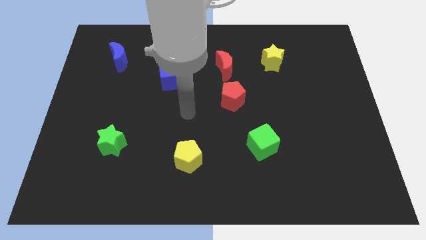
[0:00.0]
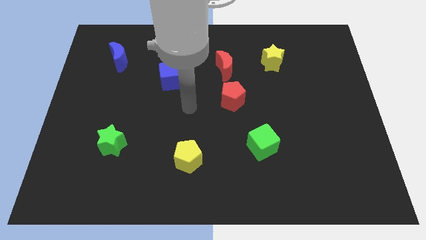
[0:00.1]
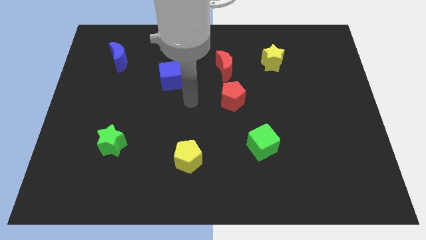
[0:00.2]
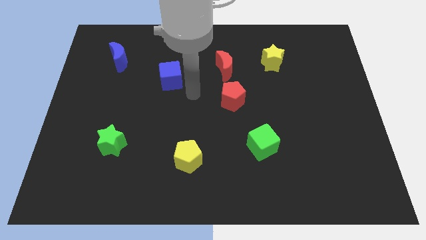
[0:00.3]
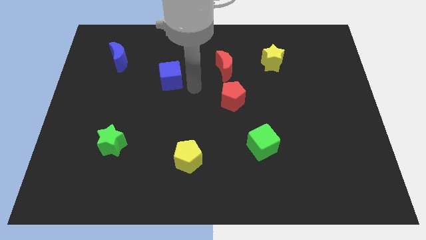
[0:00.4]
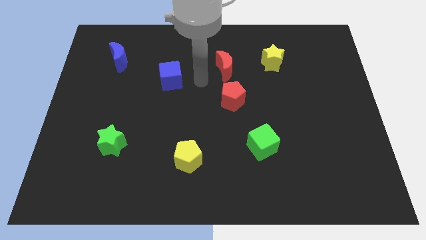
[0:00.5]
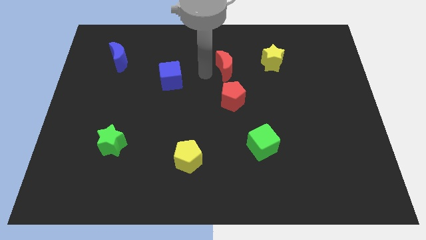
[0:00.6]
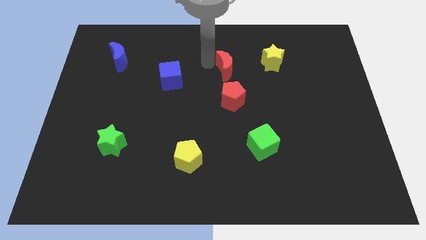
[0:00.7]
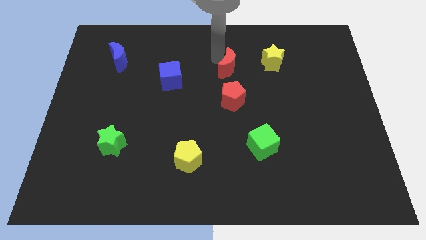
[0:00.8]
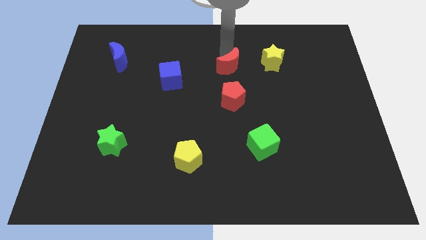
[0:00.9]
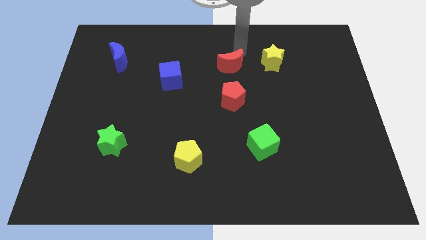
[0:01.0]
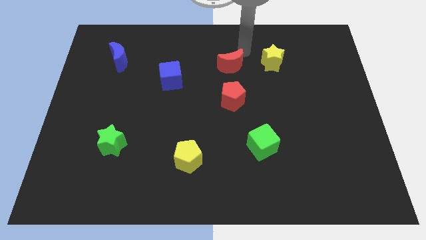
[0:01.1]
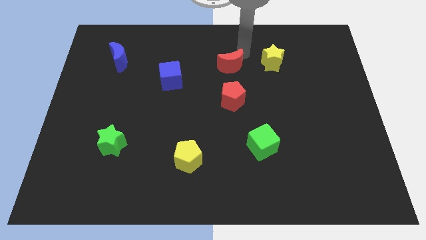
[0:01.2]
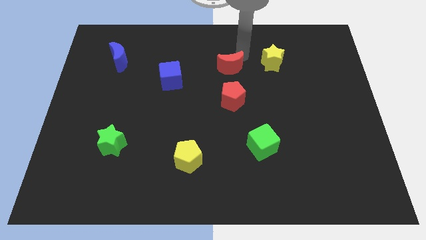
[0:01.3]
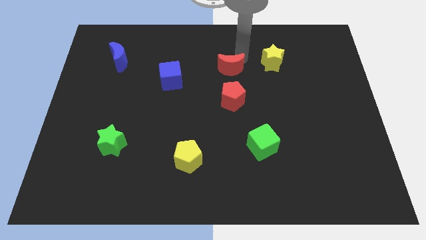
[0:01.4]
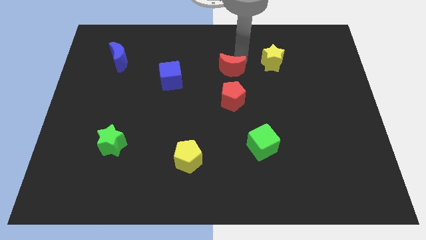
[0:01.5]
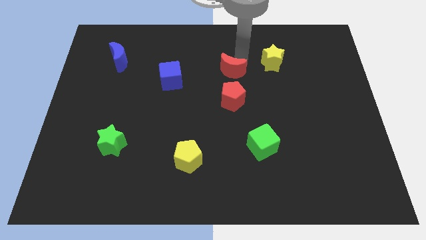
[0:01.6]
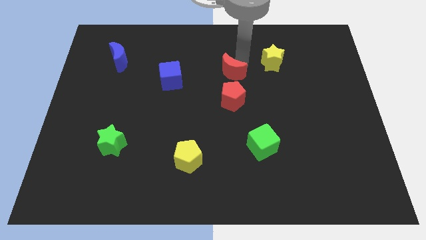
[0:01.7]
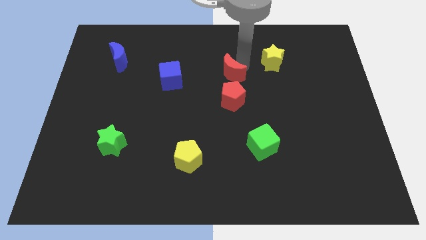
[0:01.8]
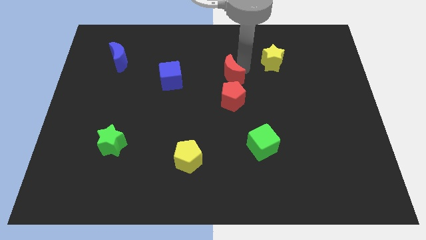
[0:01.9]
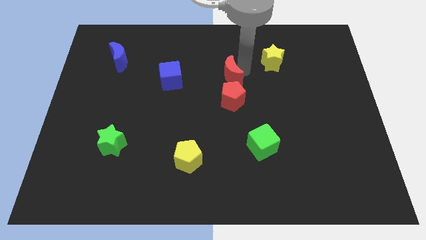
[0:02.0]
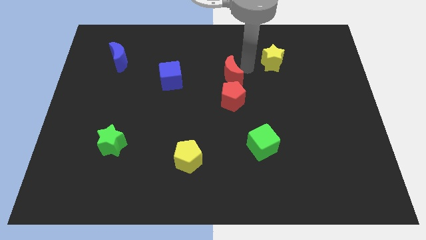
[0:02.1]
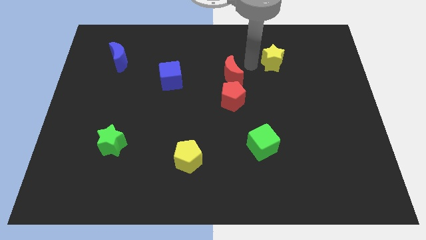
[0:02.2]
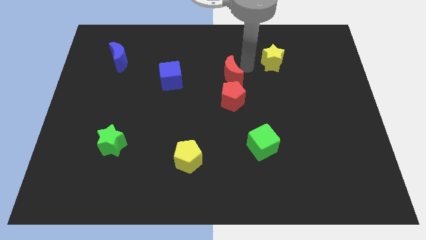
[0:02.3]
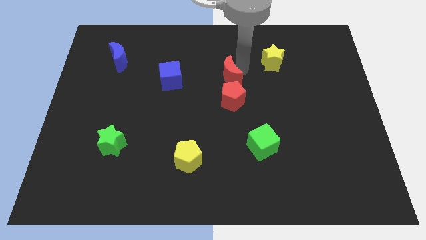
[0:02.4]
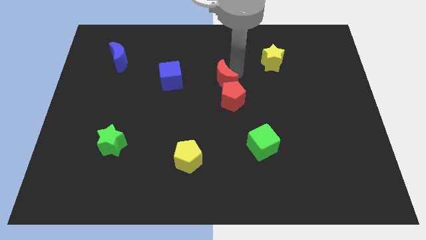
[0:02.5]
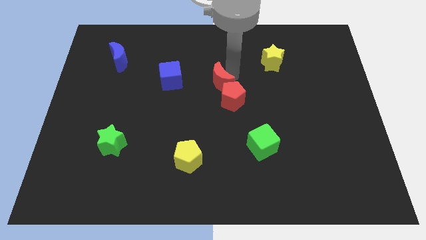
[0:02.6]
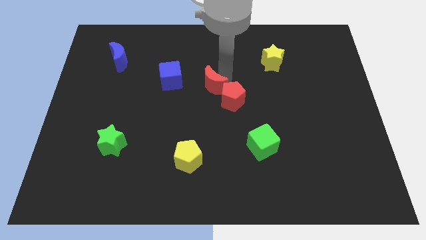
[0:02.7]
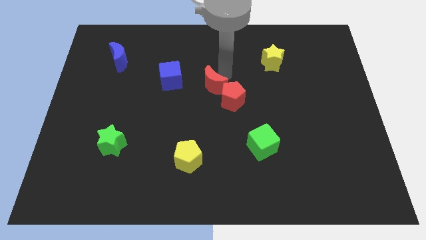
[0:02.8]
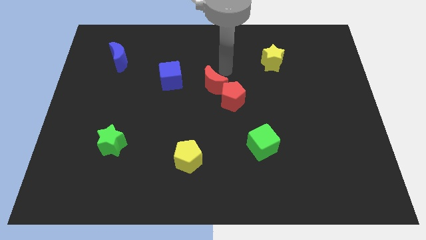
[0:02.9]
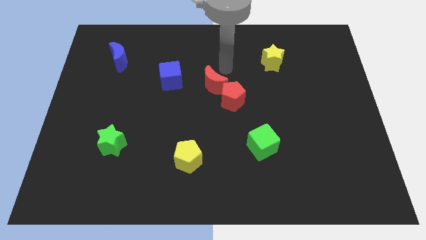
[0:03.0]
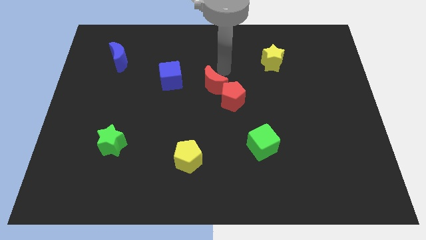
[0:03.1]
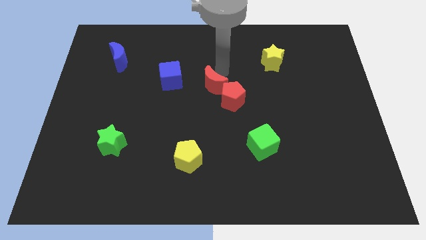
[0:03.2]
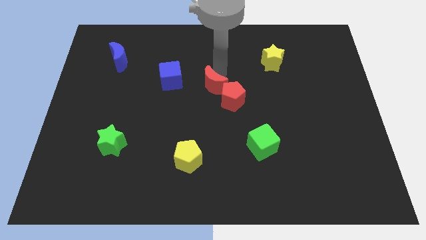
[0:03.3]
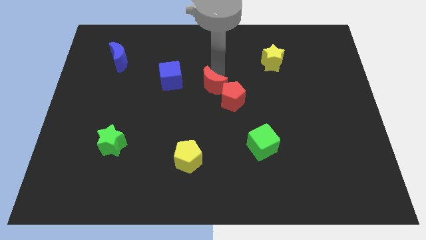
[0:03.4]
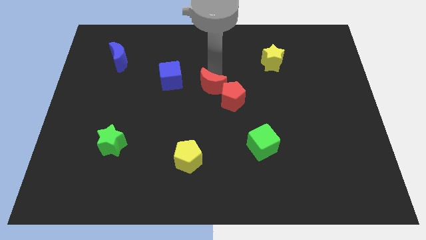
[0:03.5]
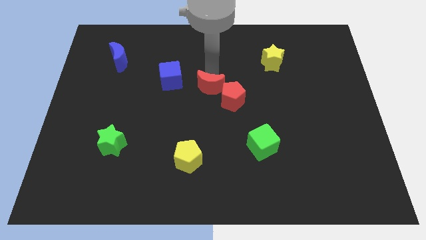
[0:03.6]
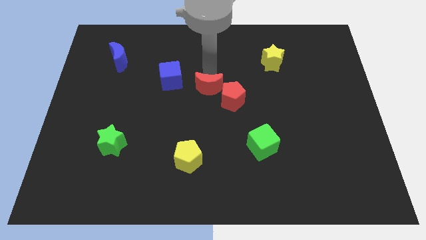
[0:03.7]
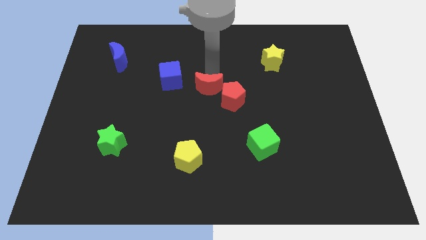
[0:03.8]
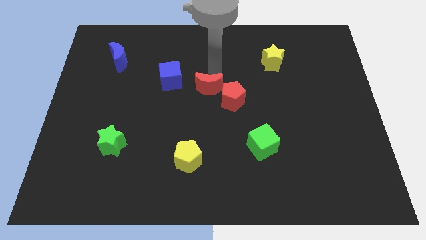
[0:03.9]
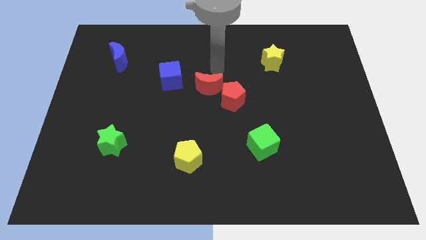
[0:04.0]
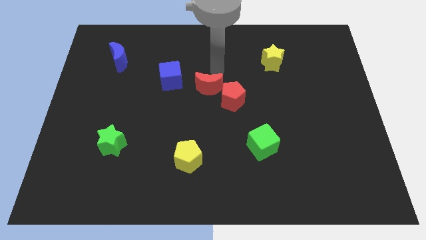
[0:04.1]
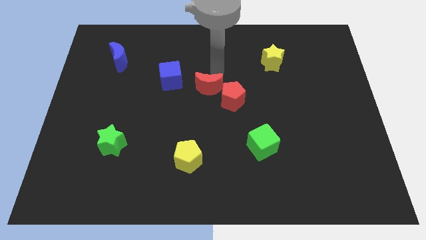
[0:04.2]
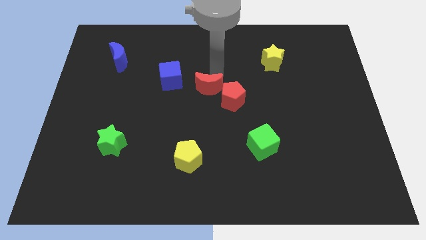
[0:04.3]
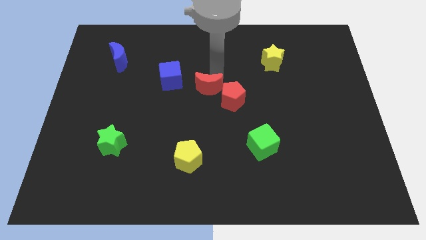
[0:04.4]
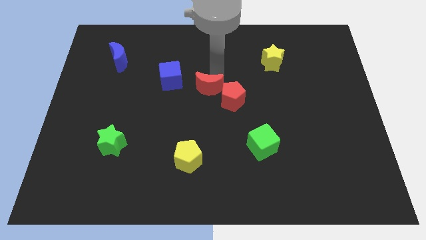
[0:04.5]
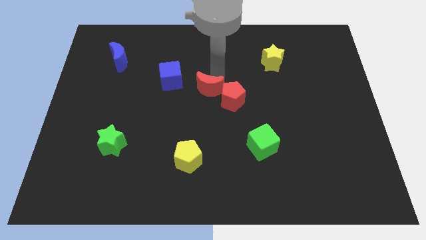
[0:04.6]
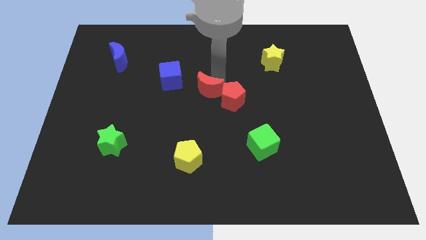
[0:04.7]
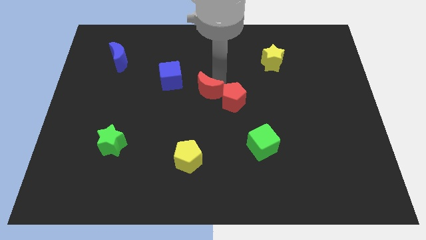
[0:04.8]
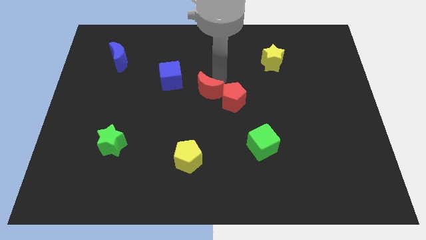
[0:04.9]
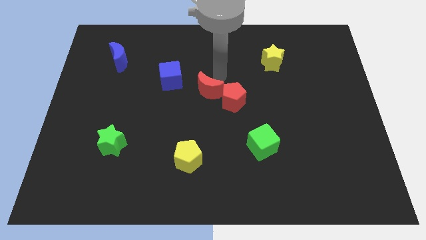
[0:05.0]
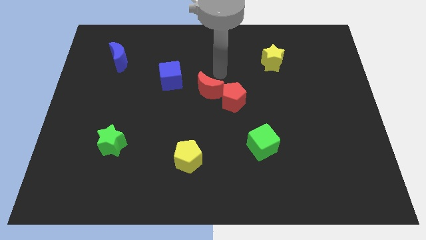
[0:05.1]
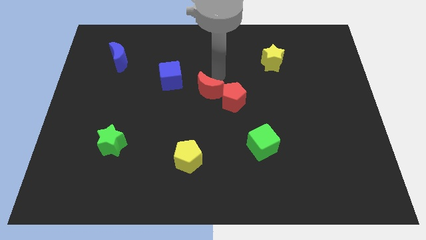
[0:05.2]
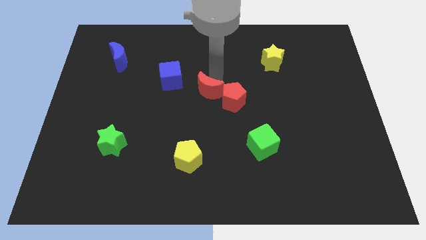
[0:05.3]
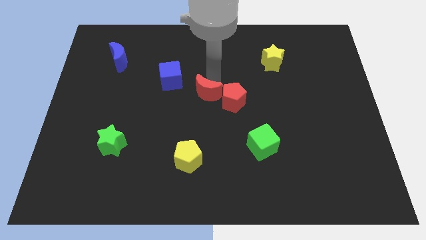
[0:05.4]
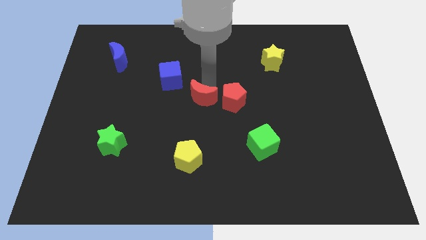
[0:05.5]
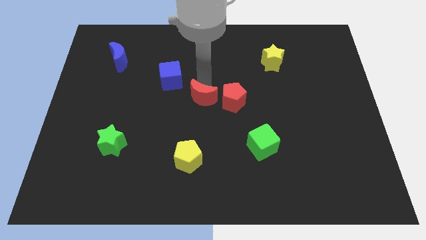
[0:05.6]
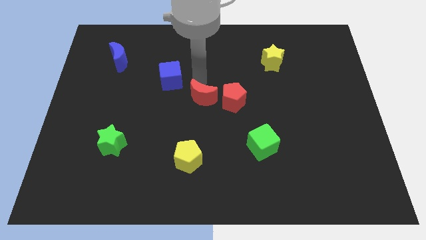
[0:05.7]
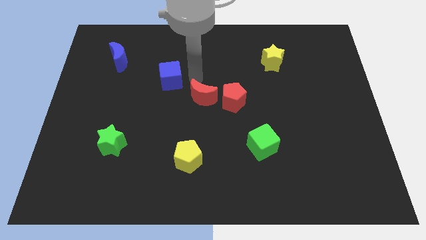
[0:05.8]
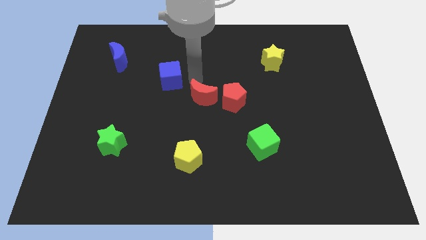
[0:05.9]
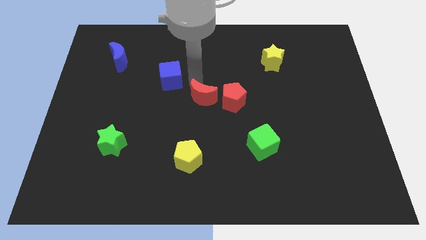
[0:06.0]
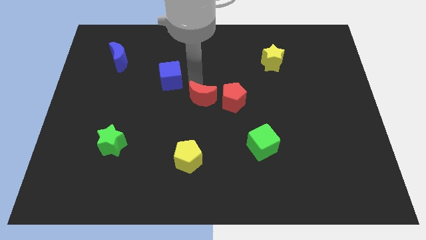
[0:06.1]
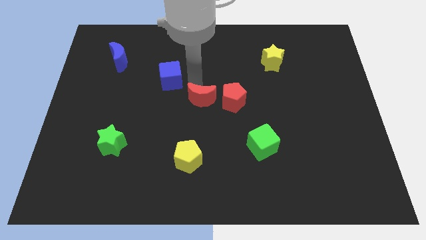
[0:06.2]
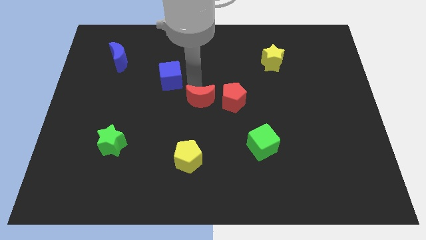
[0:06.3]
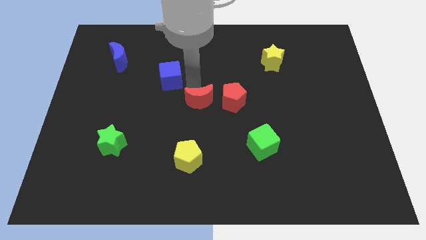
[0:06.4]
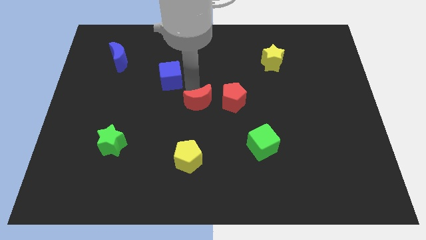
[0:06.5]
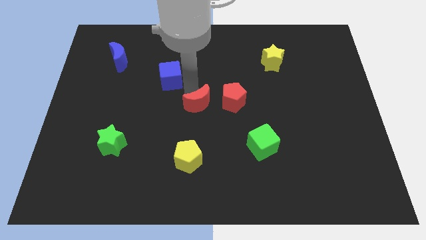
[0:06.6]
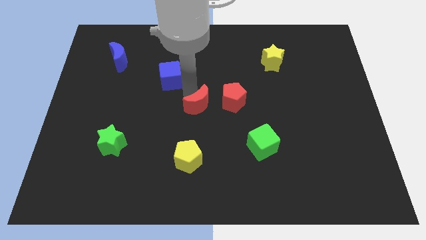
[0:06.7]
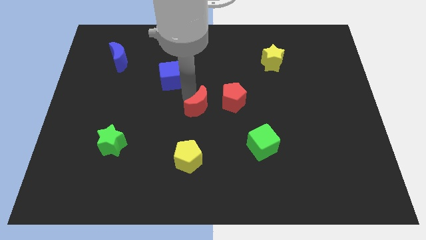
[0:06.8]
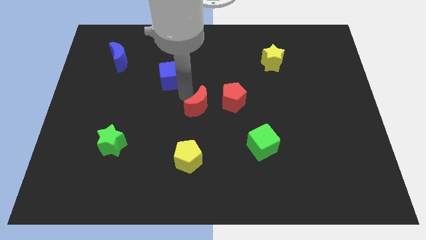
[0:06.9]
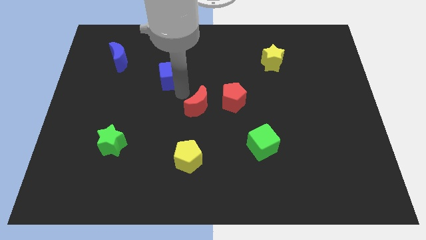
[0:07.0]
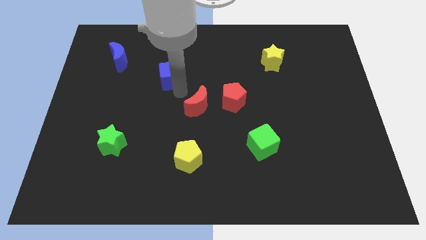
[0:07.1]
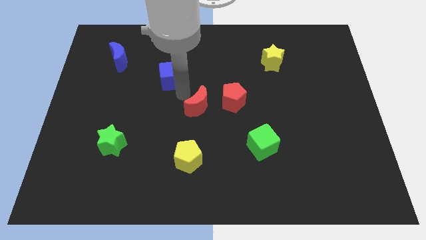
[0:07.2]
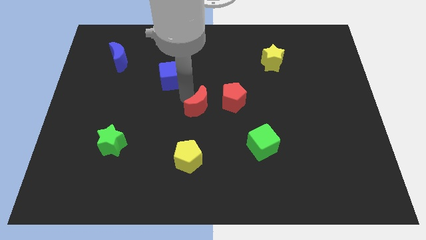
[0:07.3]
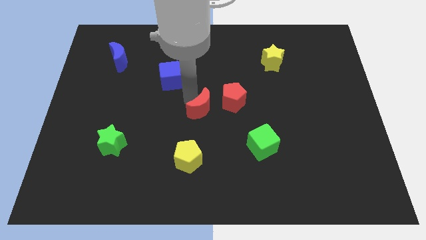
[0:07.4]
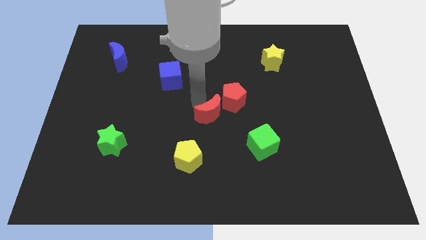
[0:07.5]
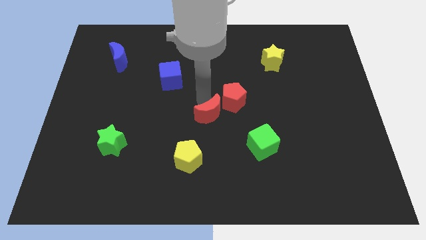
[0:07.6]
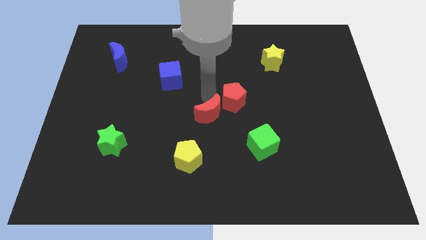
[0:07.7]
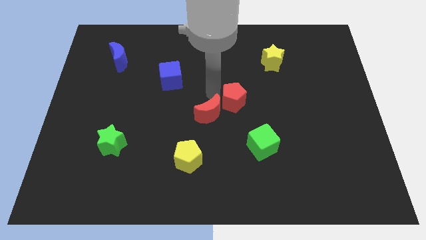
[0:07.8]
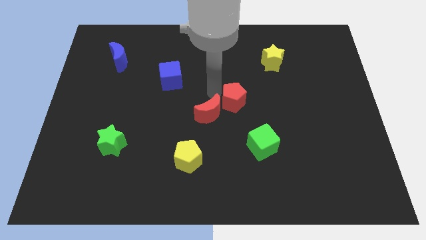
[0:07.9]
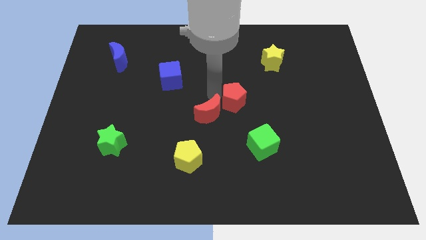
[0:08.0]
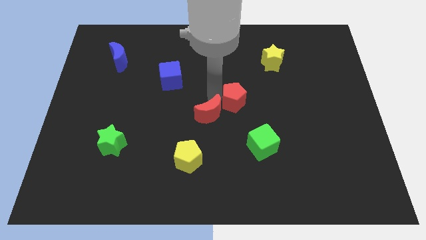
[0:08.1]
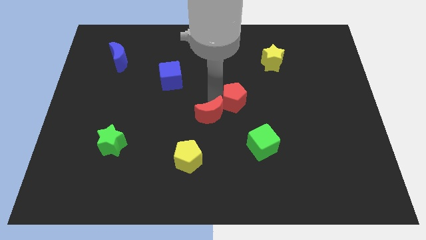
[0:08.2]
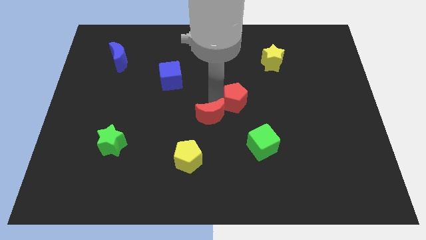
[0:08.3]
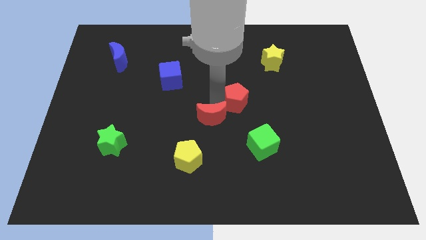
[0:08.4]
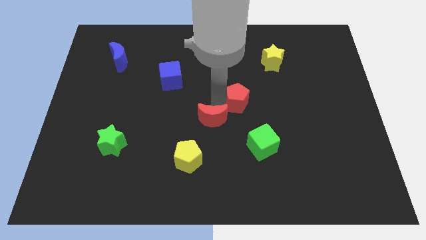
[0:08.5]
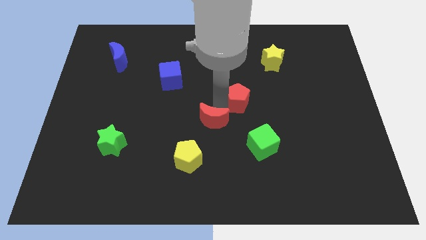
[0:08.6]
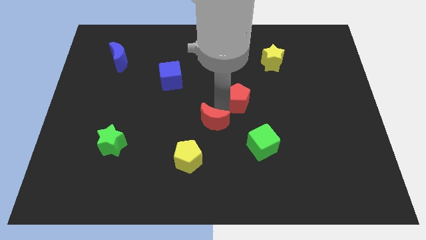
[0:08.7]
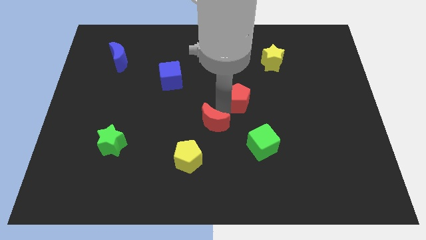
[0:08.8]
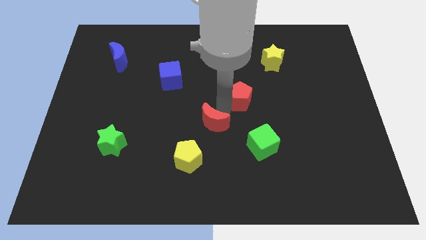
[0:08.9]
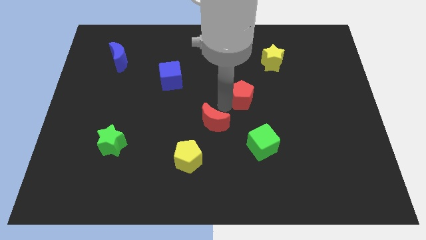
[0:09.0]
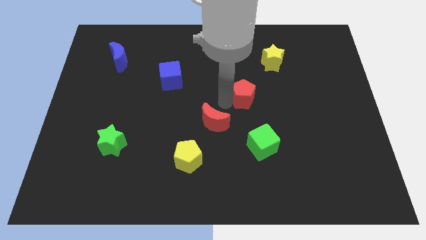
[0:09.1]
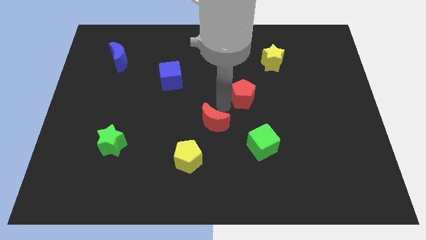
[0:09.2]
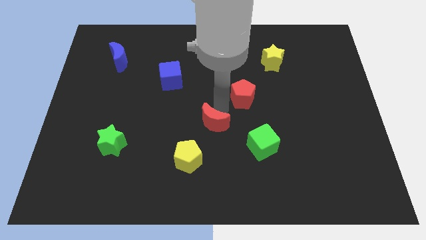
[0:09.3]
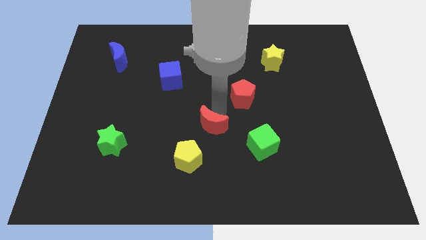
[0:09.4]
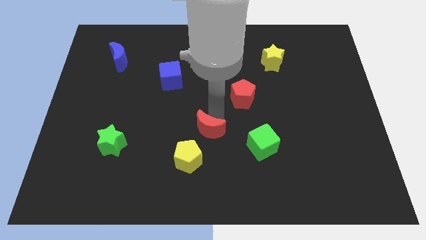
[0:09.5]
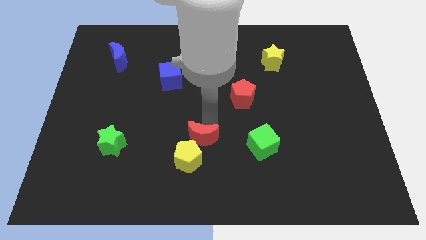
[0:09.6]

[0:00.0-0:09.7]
push the red moon downwards
